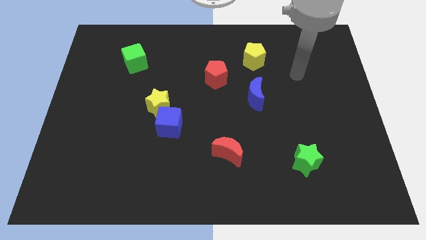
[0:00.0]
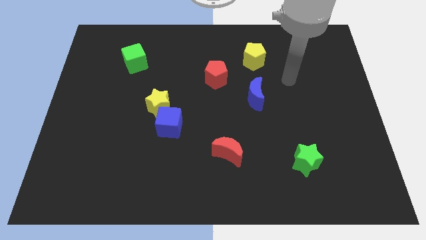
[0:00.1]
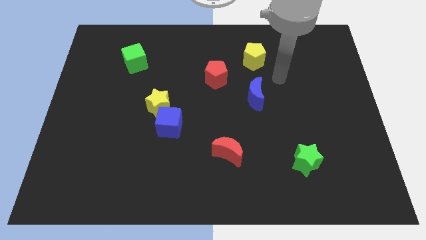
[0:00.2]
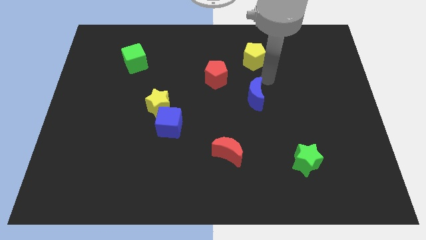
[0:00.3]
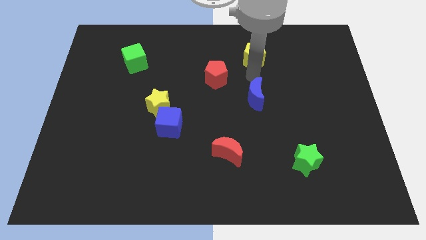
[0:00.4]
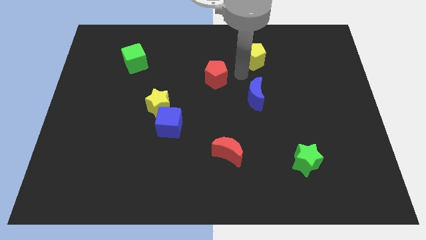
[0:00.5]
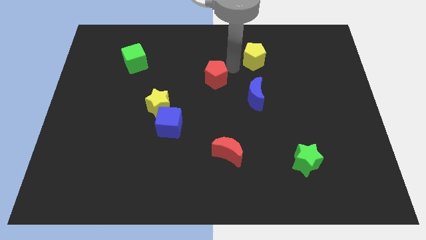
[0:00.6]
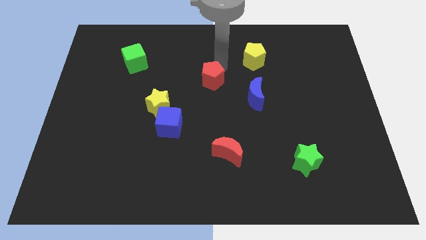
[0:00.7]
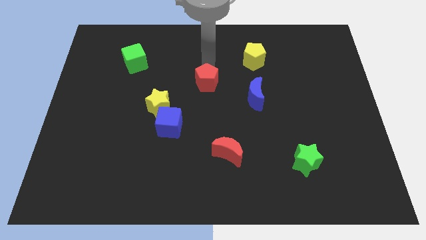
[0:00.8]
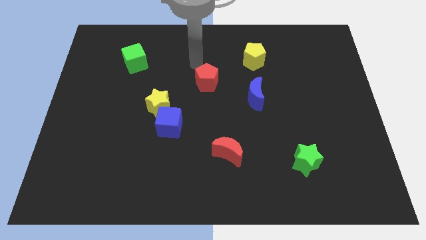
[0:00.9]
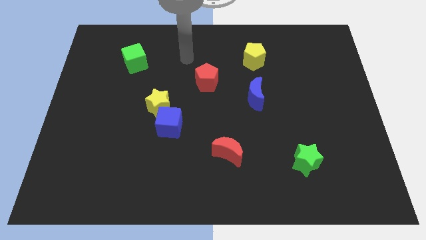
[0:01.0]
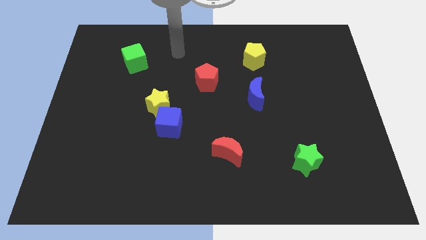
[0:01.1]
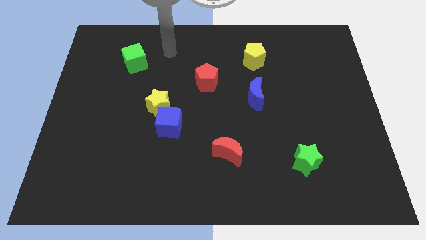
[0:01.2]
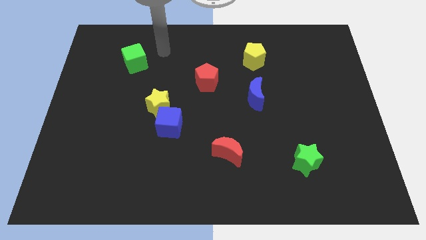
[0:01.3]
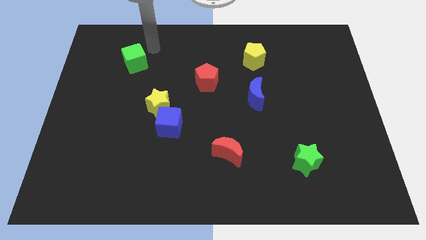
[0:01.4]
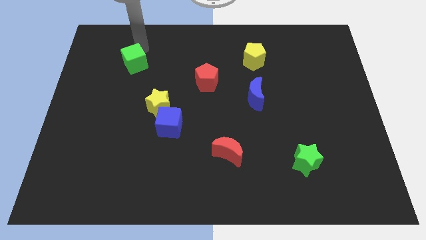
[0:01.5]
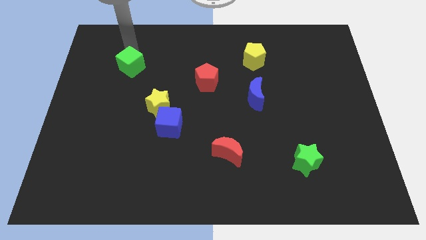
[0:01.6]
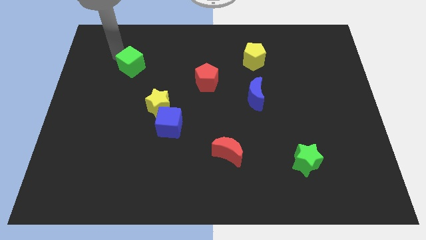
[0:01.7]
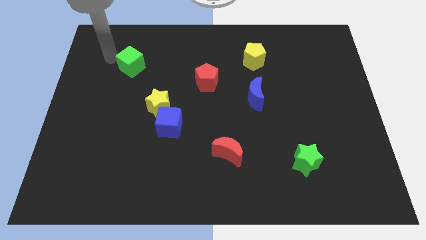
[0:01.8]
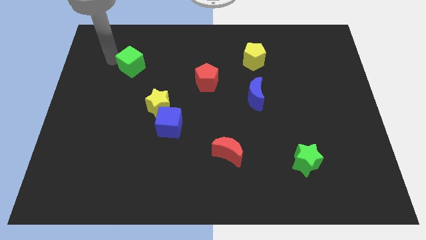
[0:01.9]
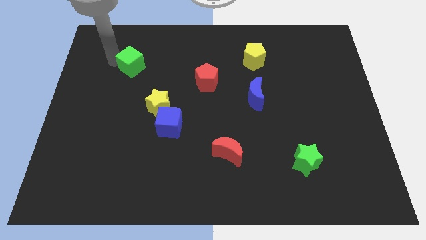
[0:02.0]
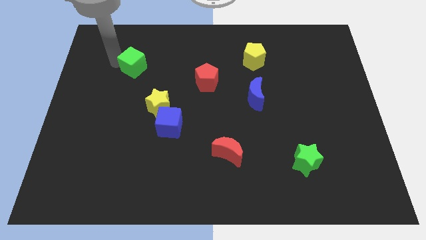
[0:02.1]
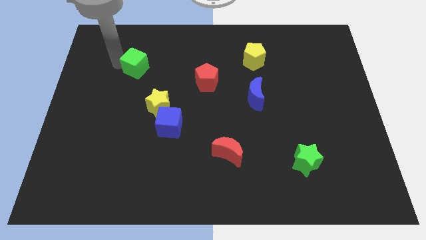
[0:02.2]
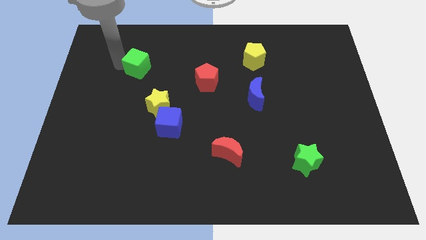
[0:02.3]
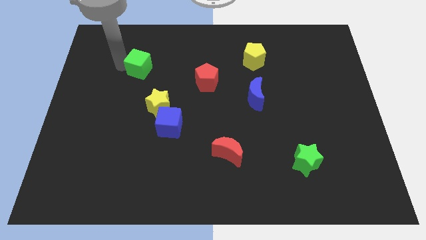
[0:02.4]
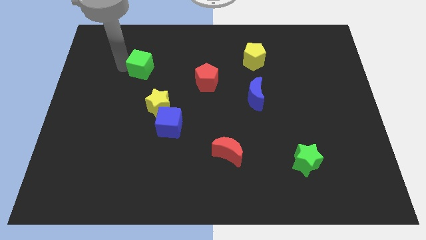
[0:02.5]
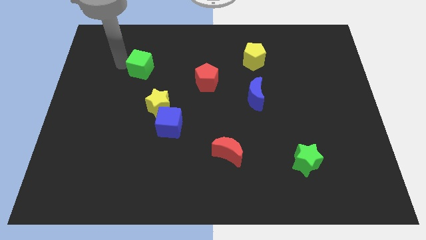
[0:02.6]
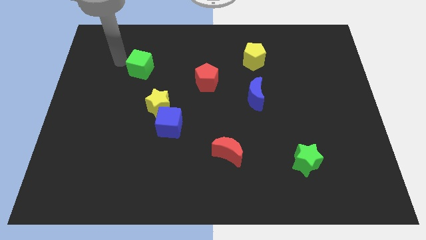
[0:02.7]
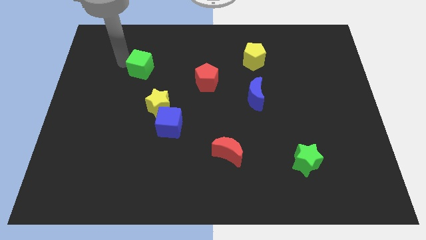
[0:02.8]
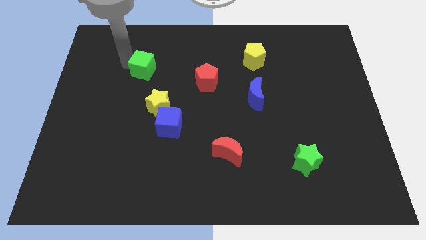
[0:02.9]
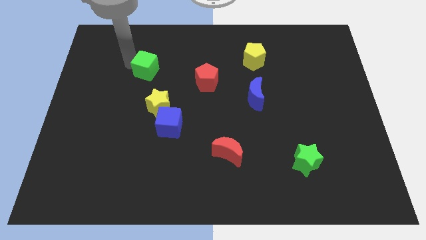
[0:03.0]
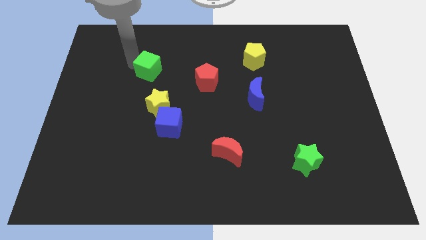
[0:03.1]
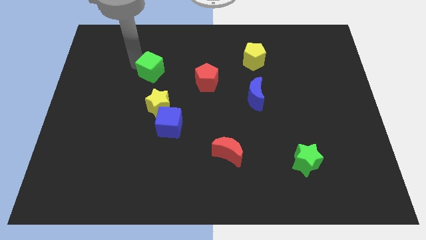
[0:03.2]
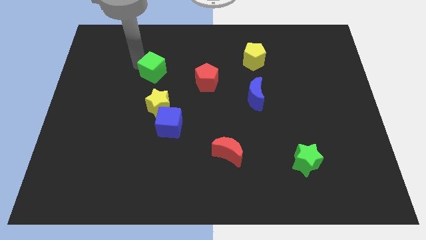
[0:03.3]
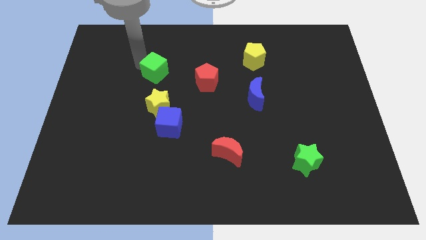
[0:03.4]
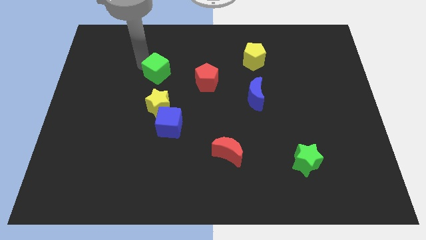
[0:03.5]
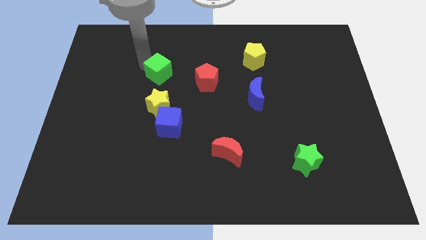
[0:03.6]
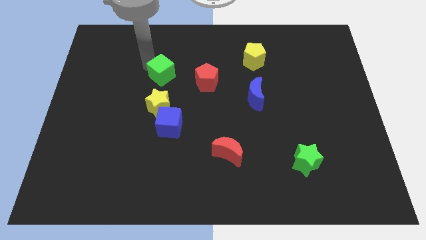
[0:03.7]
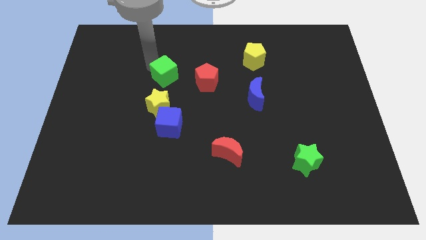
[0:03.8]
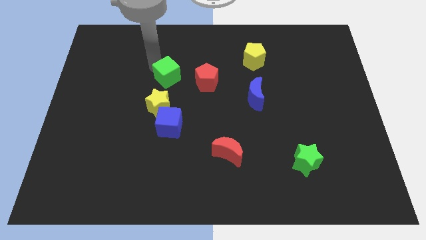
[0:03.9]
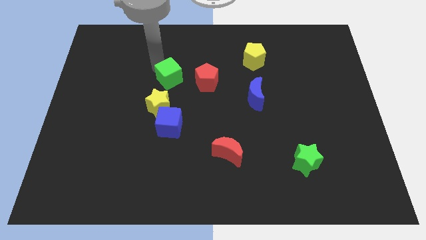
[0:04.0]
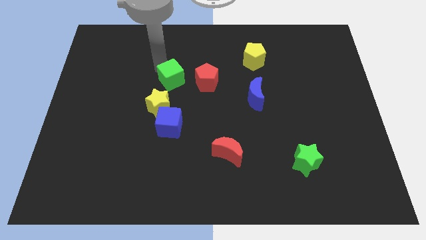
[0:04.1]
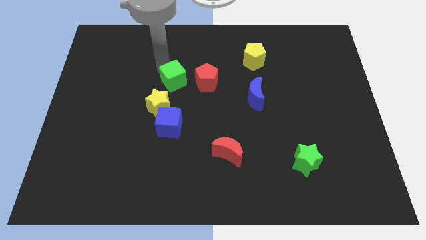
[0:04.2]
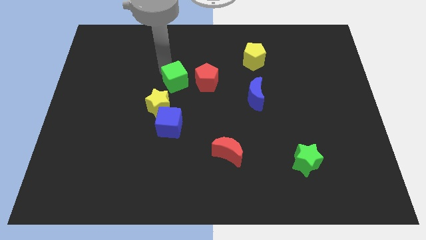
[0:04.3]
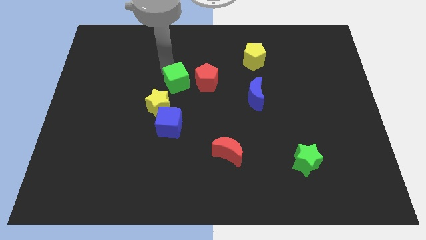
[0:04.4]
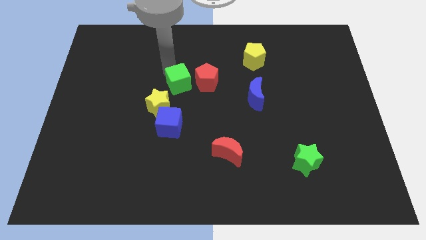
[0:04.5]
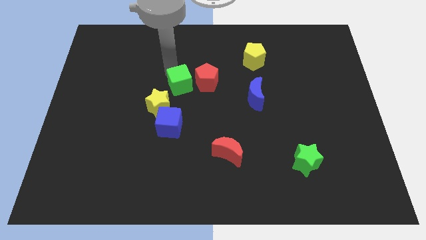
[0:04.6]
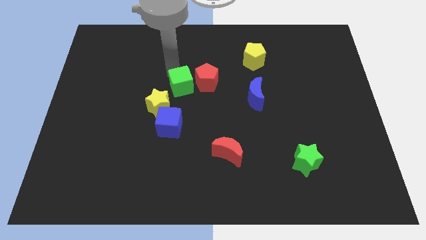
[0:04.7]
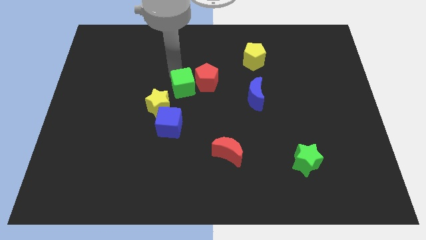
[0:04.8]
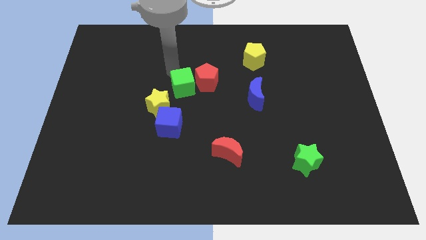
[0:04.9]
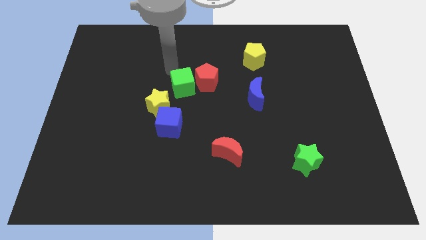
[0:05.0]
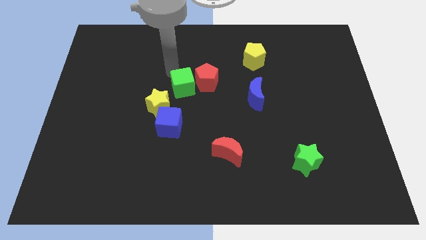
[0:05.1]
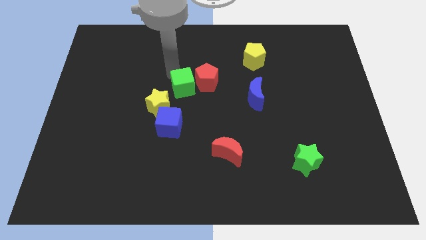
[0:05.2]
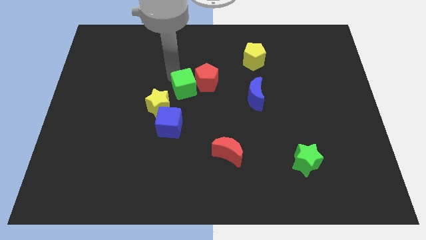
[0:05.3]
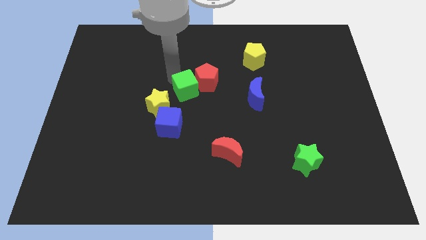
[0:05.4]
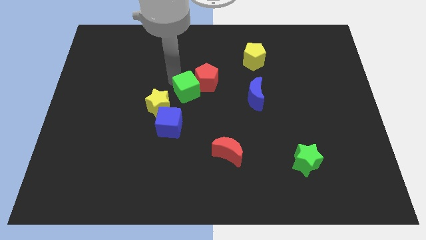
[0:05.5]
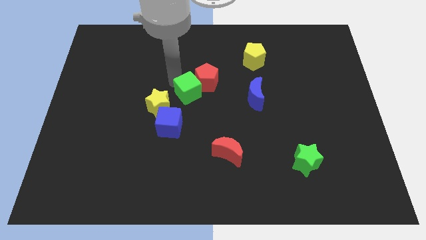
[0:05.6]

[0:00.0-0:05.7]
move the green cube to the bottom side of the red pentagon

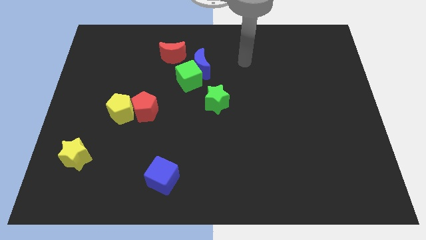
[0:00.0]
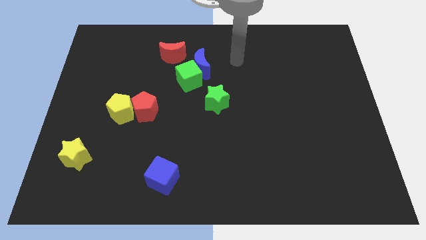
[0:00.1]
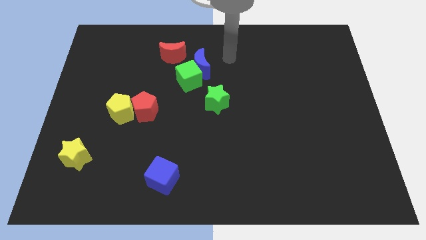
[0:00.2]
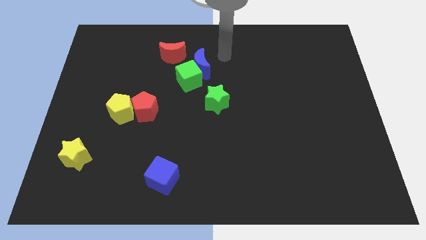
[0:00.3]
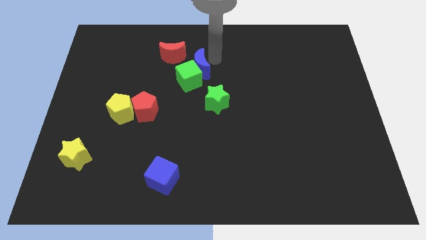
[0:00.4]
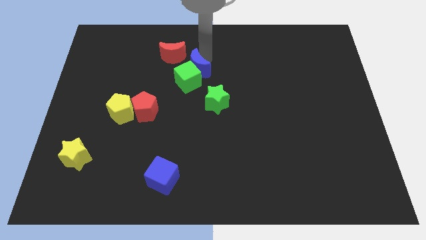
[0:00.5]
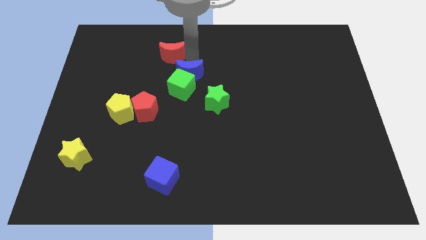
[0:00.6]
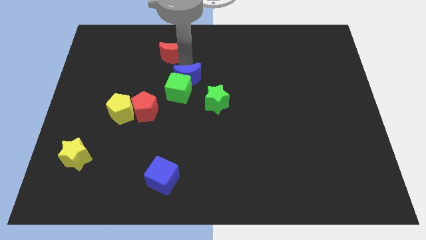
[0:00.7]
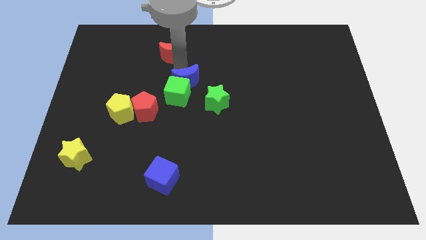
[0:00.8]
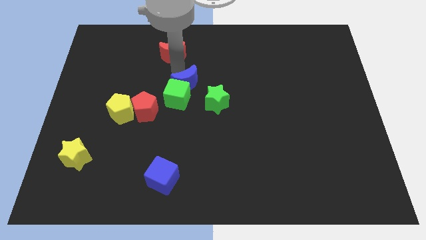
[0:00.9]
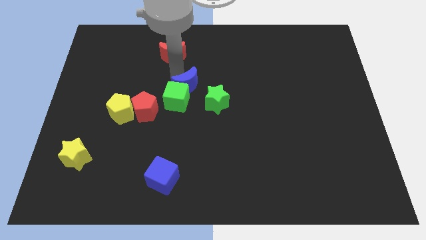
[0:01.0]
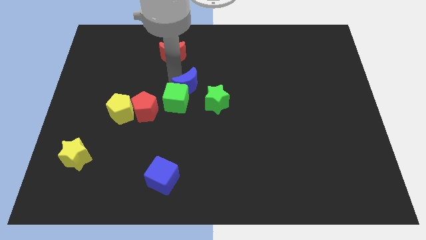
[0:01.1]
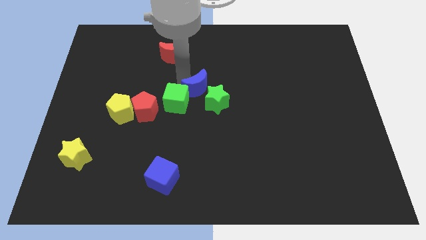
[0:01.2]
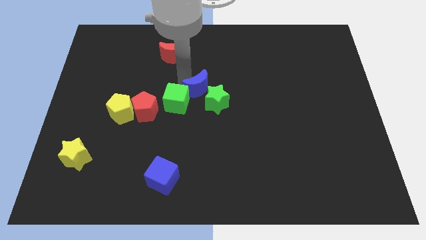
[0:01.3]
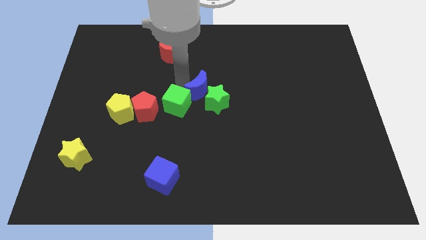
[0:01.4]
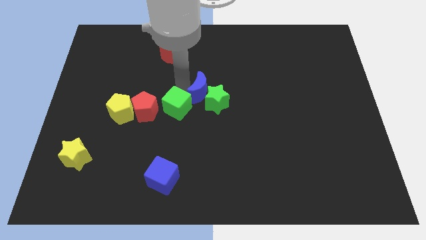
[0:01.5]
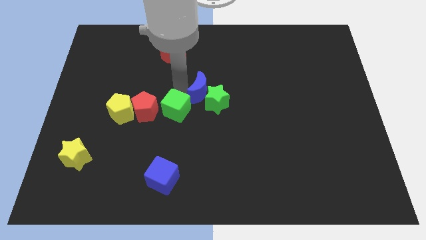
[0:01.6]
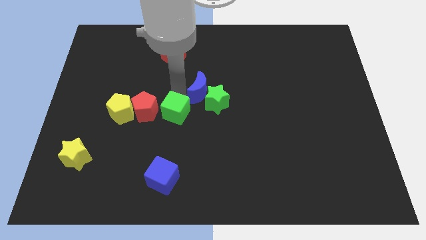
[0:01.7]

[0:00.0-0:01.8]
slide the green cube diagonally down and to the right of the red pentagon
